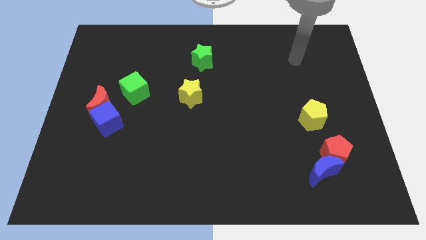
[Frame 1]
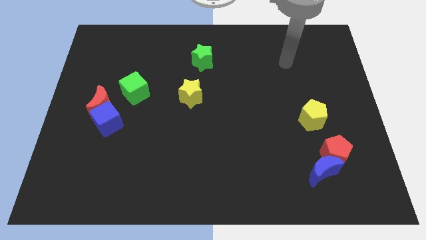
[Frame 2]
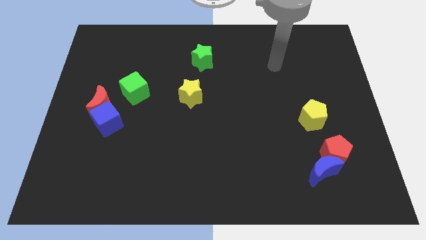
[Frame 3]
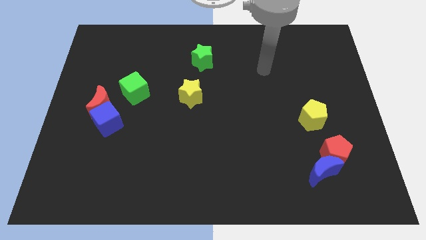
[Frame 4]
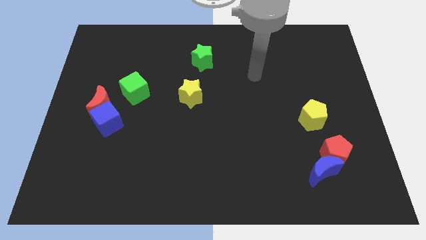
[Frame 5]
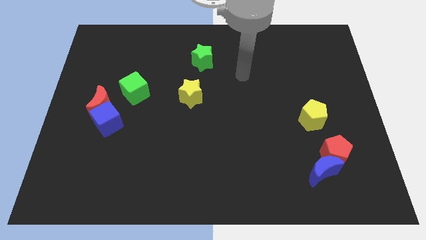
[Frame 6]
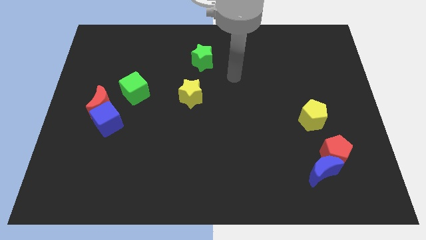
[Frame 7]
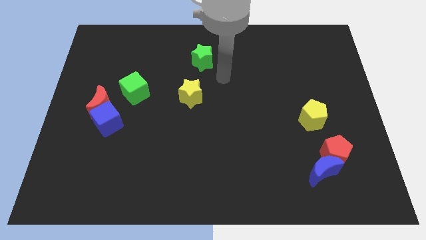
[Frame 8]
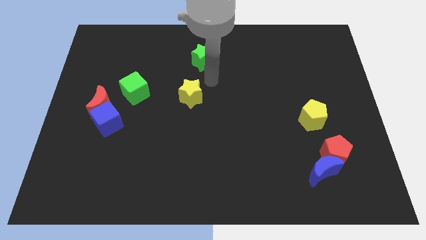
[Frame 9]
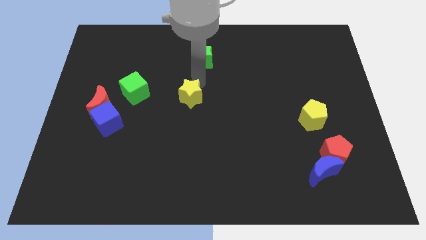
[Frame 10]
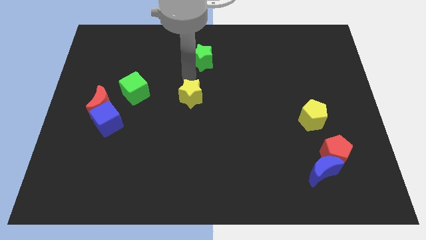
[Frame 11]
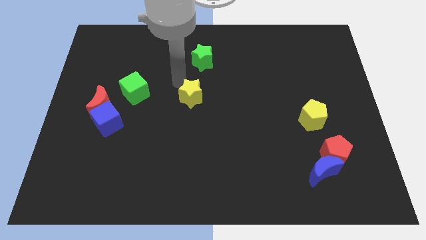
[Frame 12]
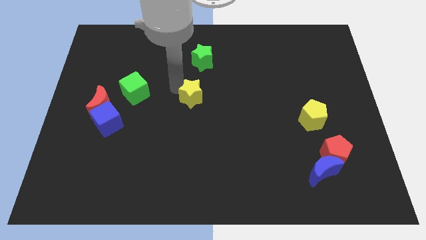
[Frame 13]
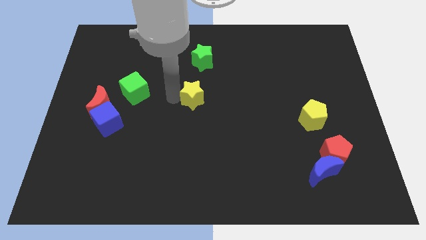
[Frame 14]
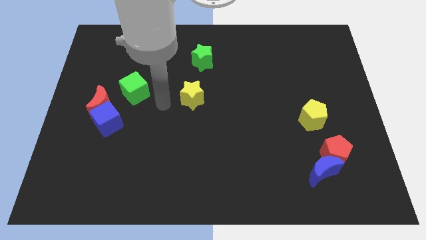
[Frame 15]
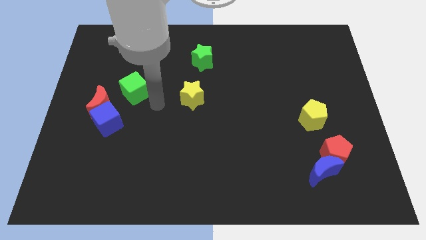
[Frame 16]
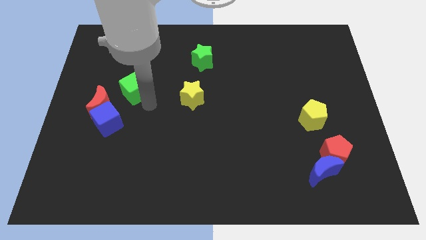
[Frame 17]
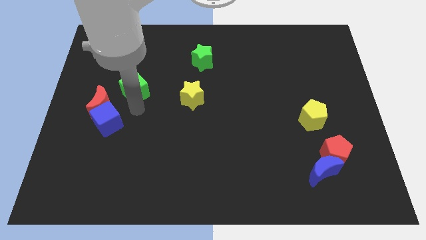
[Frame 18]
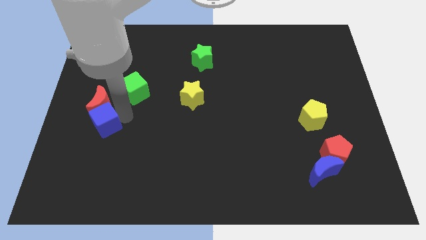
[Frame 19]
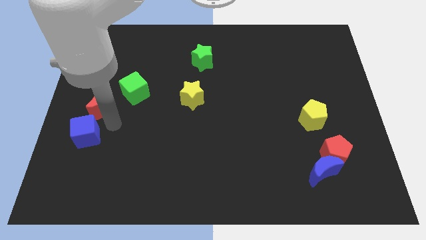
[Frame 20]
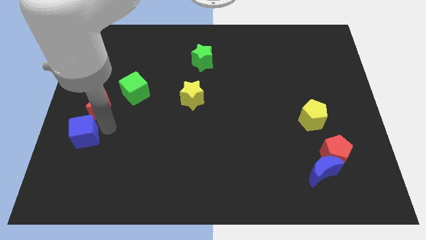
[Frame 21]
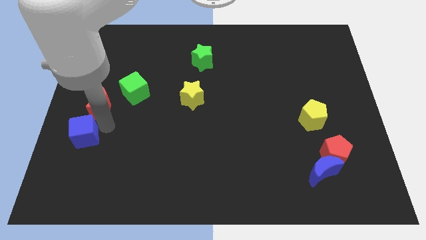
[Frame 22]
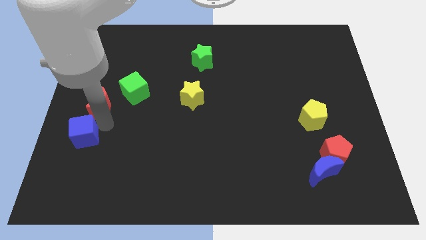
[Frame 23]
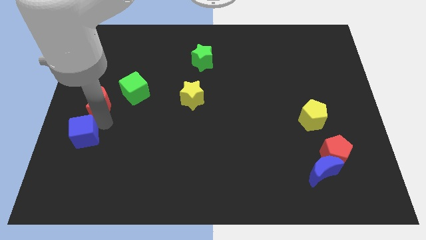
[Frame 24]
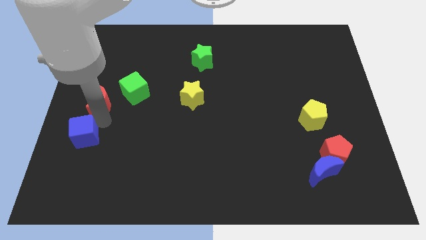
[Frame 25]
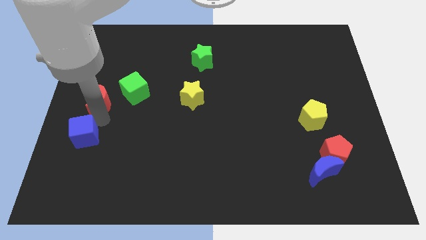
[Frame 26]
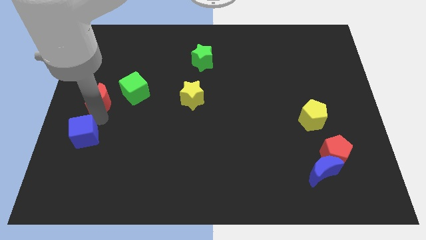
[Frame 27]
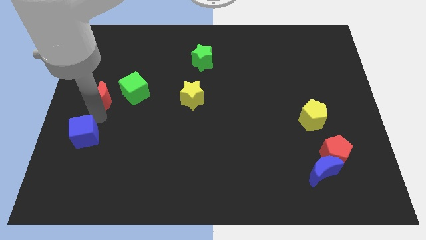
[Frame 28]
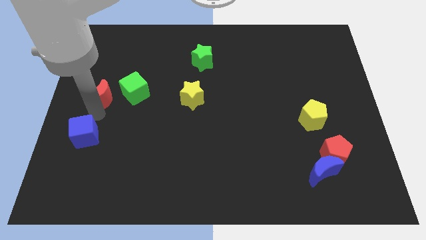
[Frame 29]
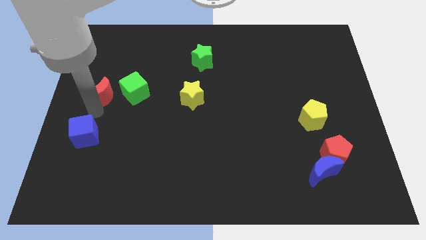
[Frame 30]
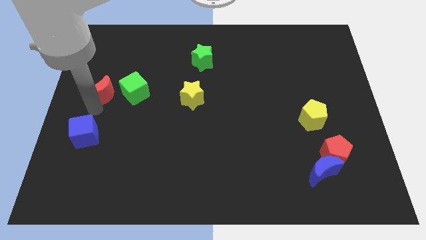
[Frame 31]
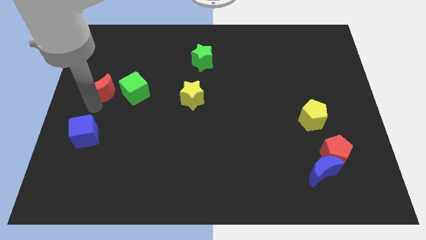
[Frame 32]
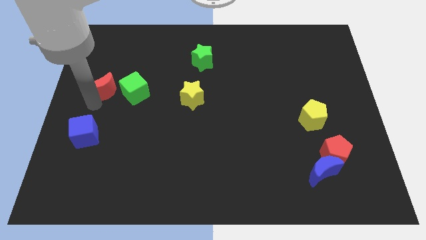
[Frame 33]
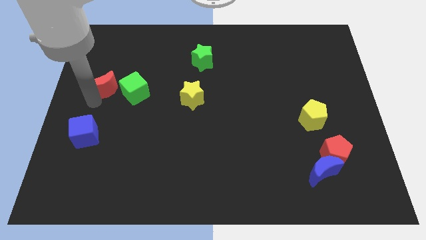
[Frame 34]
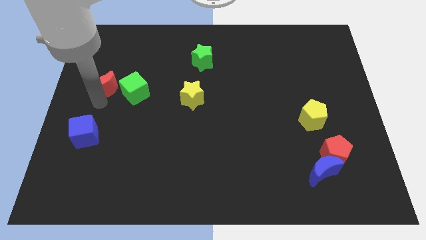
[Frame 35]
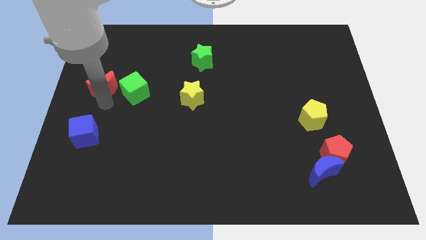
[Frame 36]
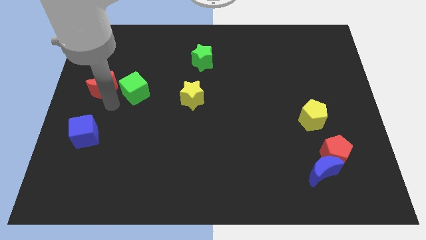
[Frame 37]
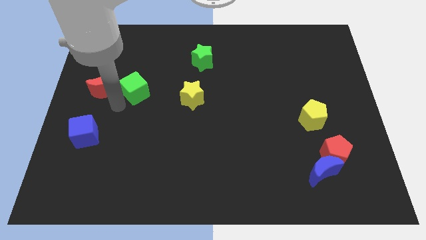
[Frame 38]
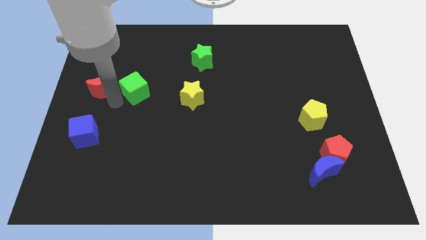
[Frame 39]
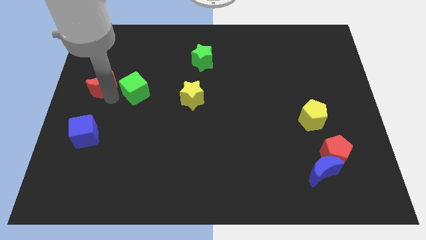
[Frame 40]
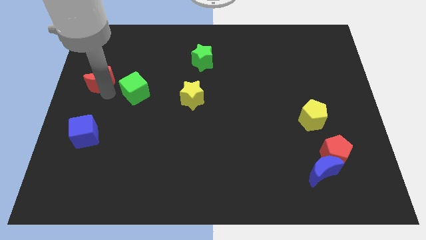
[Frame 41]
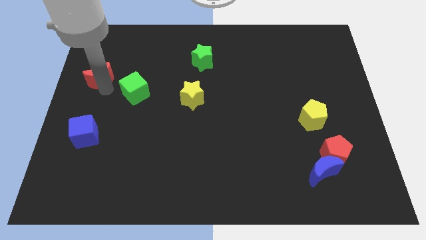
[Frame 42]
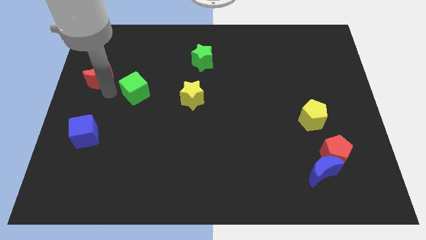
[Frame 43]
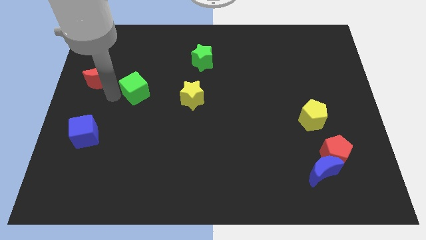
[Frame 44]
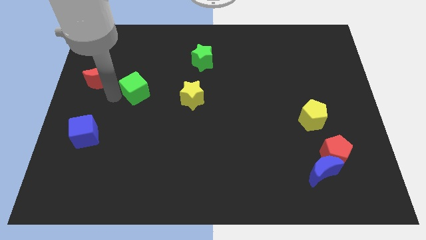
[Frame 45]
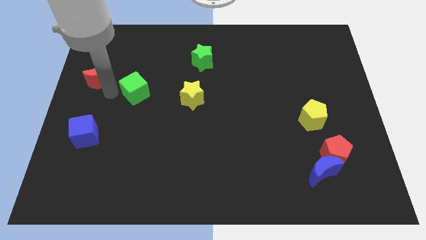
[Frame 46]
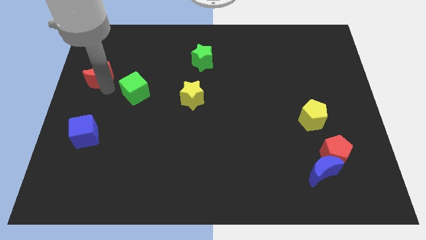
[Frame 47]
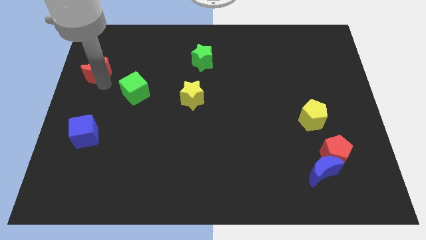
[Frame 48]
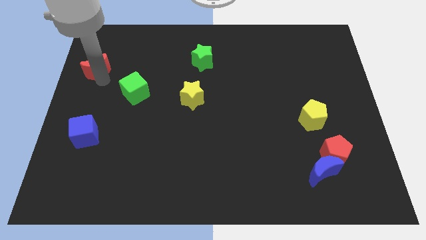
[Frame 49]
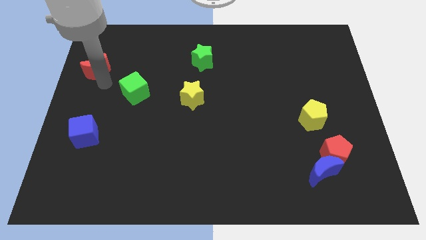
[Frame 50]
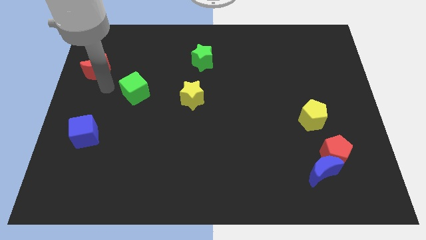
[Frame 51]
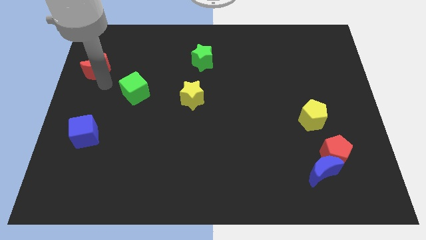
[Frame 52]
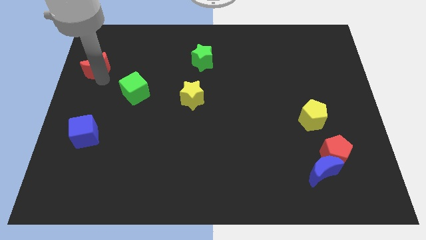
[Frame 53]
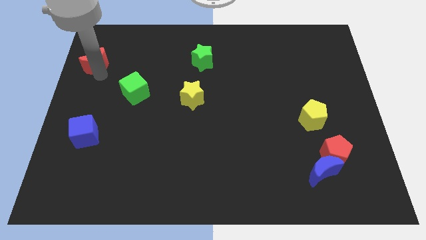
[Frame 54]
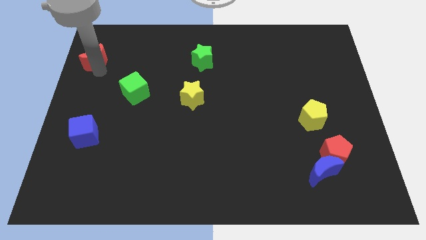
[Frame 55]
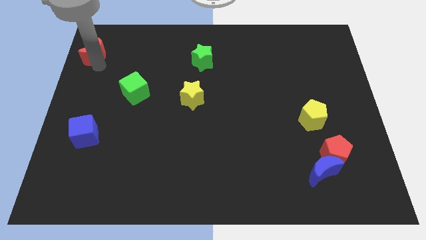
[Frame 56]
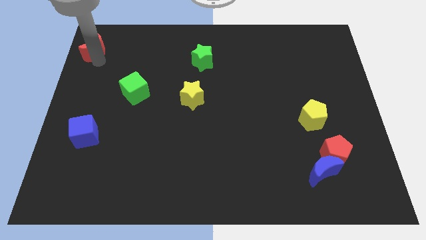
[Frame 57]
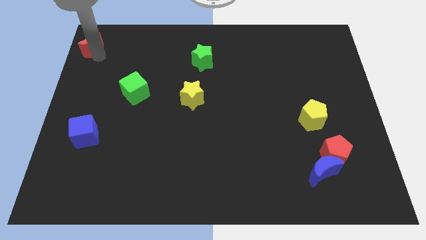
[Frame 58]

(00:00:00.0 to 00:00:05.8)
put the red moon to the upper left corner
